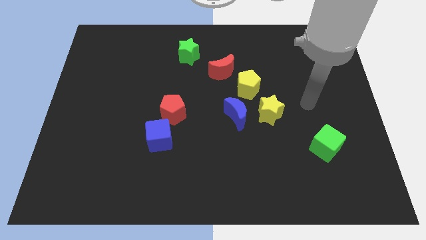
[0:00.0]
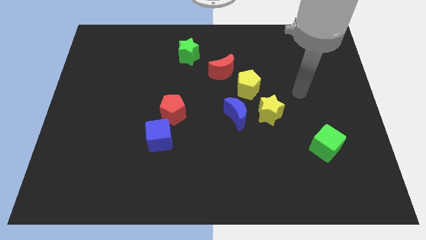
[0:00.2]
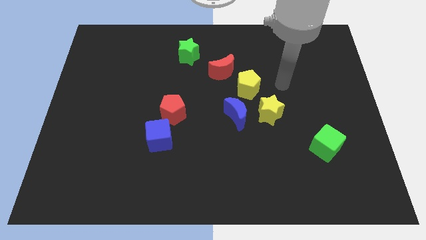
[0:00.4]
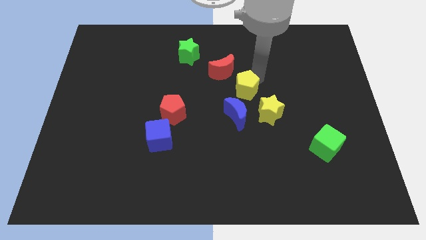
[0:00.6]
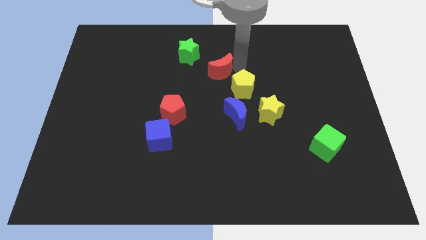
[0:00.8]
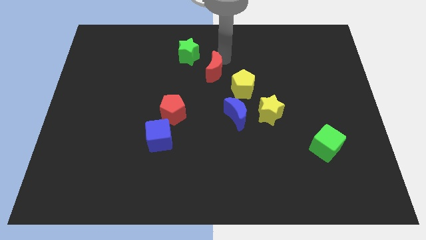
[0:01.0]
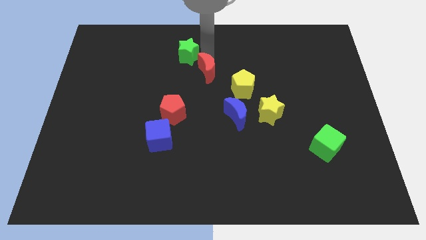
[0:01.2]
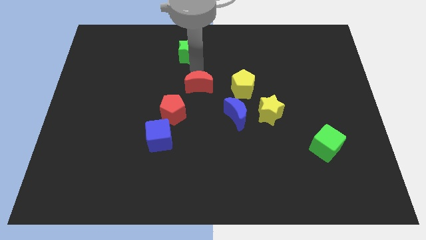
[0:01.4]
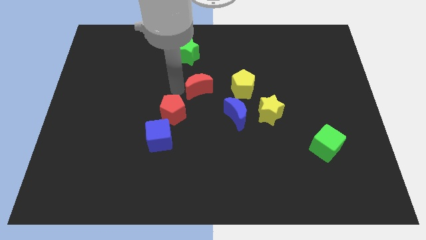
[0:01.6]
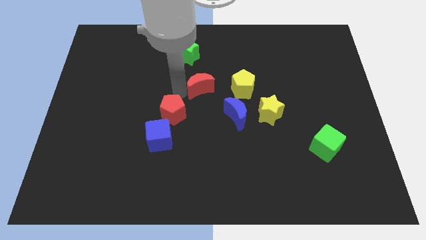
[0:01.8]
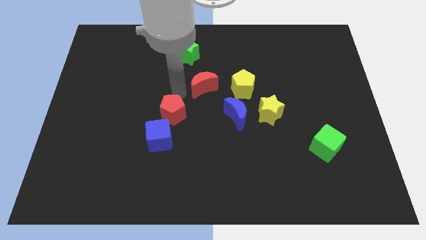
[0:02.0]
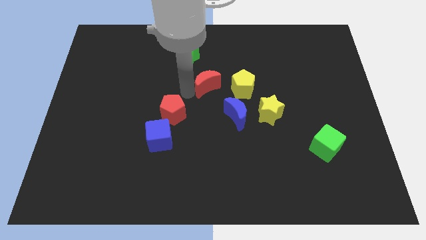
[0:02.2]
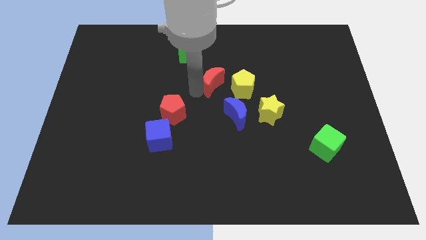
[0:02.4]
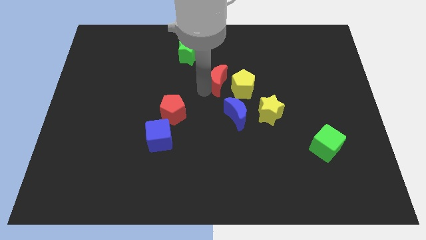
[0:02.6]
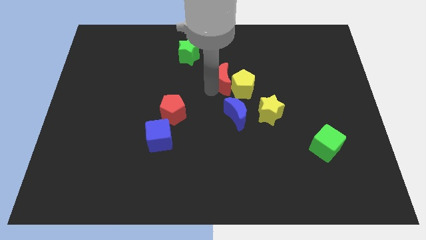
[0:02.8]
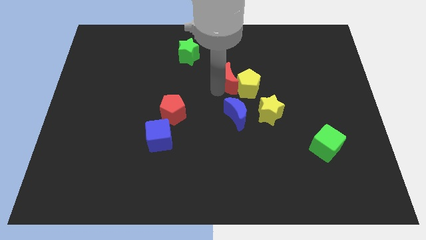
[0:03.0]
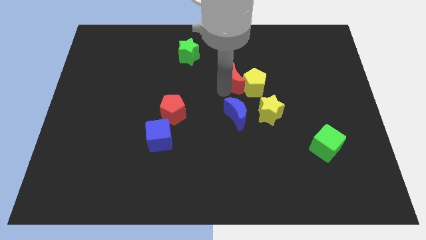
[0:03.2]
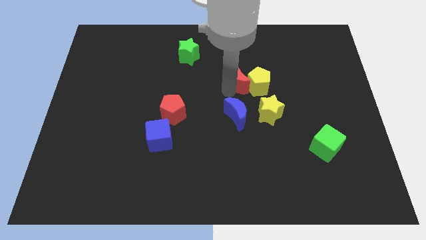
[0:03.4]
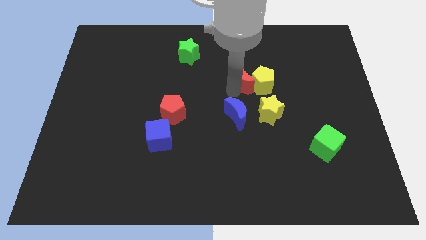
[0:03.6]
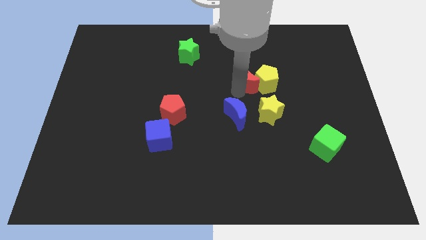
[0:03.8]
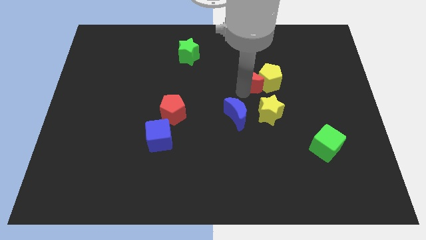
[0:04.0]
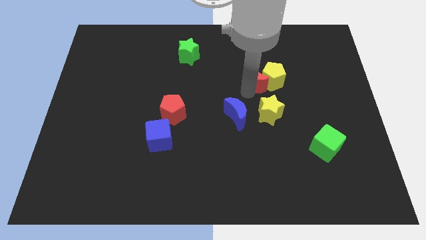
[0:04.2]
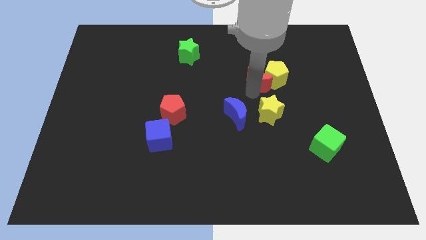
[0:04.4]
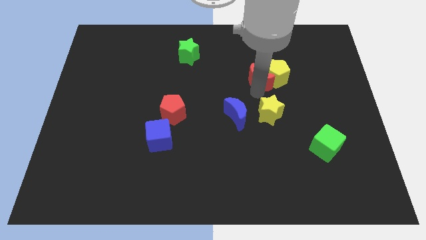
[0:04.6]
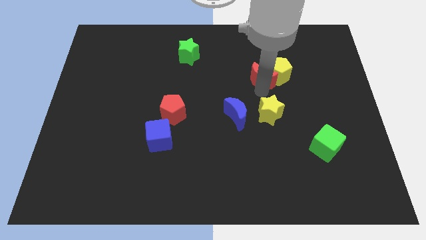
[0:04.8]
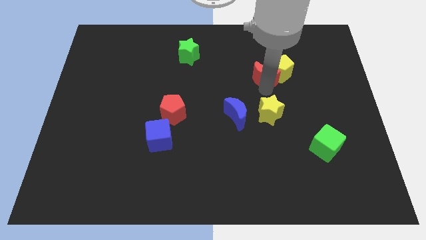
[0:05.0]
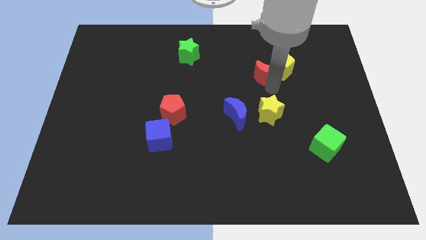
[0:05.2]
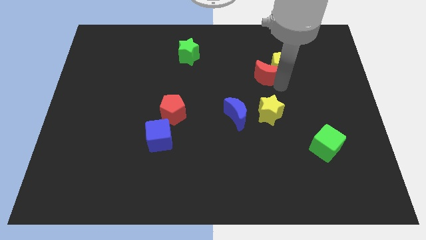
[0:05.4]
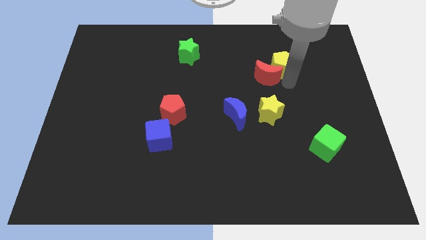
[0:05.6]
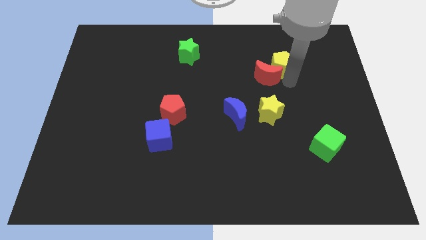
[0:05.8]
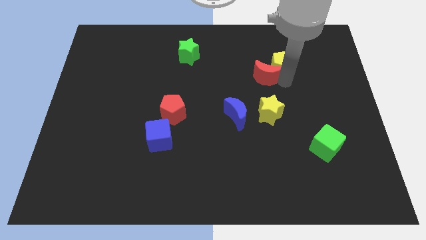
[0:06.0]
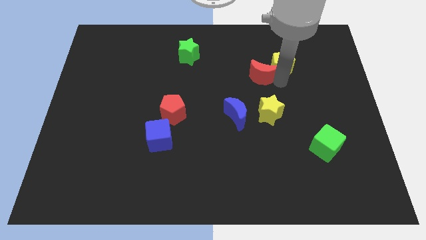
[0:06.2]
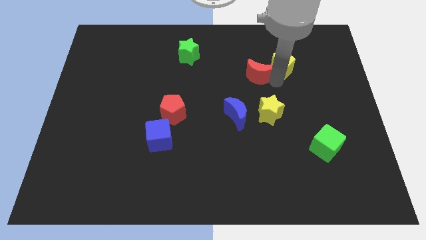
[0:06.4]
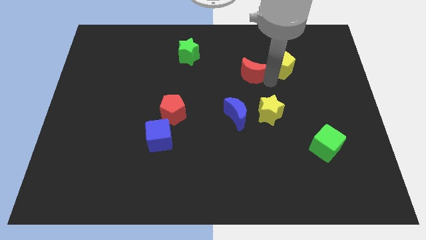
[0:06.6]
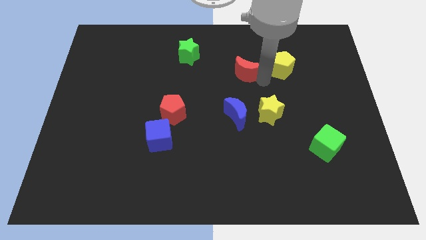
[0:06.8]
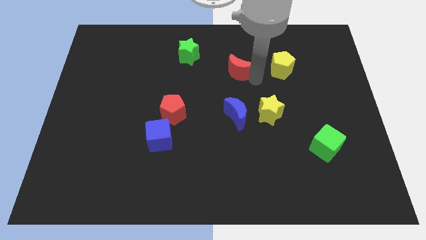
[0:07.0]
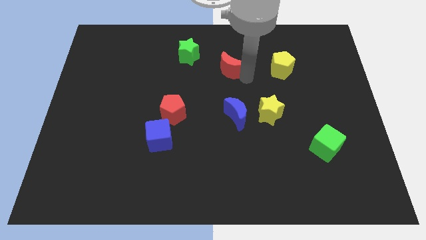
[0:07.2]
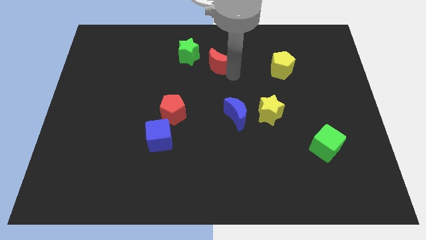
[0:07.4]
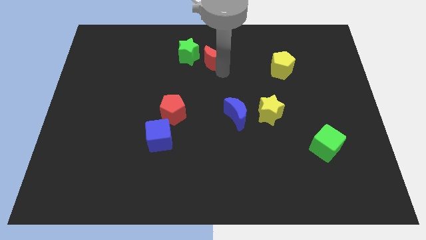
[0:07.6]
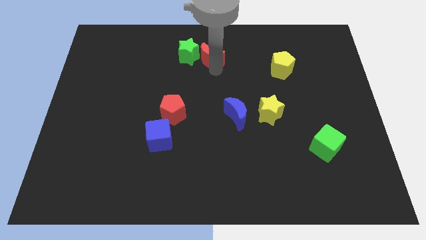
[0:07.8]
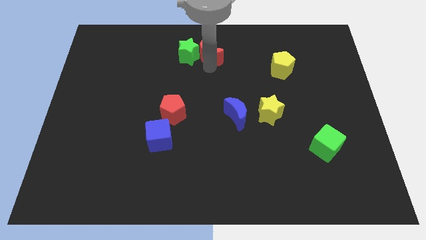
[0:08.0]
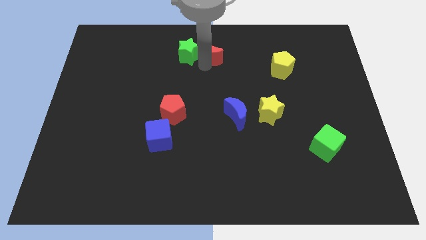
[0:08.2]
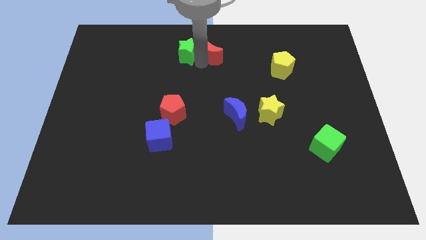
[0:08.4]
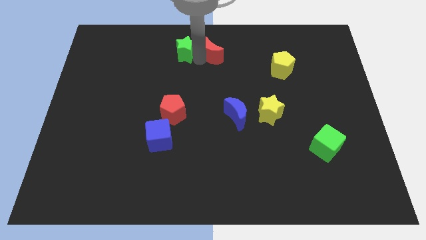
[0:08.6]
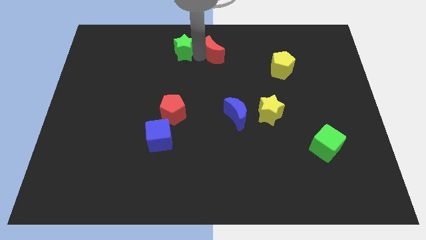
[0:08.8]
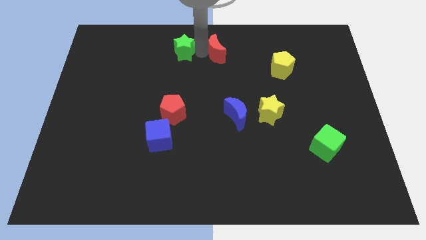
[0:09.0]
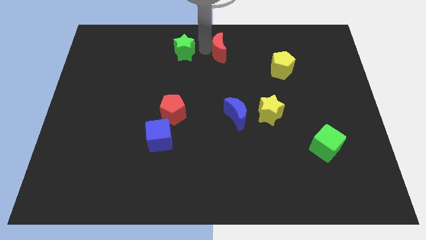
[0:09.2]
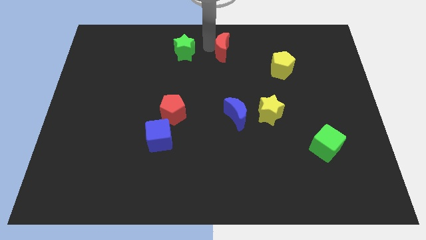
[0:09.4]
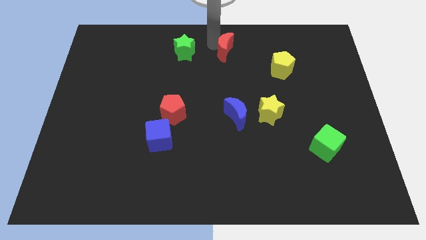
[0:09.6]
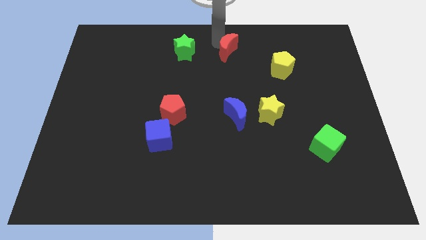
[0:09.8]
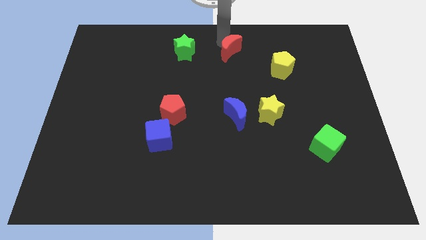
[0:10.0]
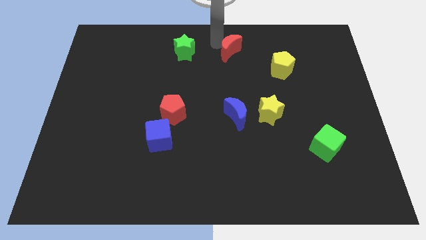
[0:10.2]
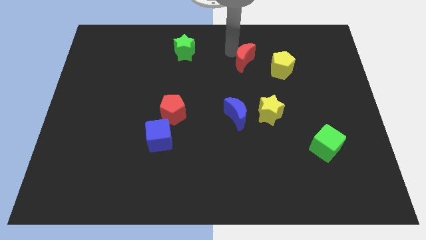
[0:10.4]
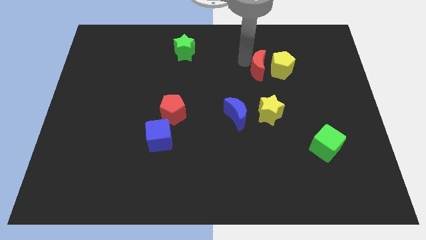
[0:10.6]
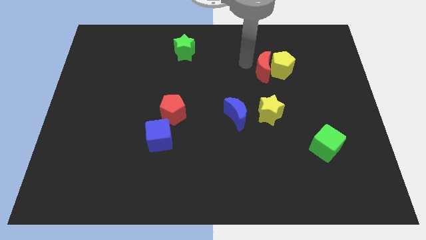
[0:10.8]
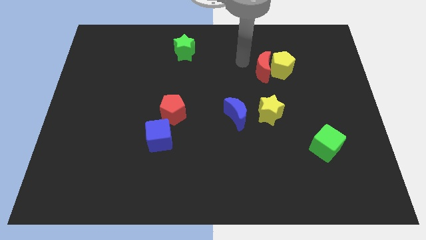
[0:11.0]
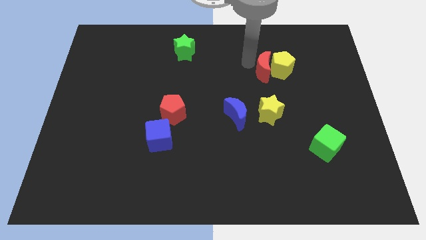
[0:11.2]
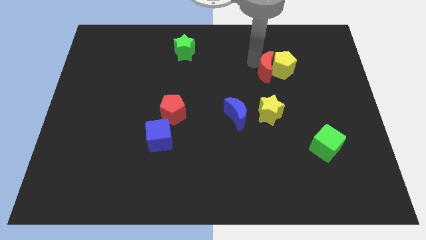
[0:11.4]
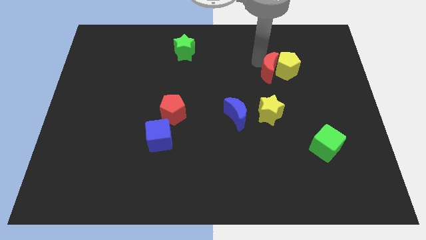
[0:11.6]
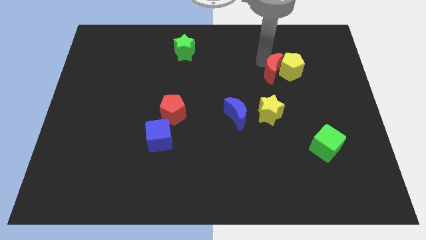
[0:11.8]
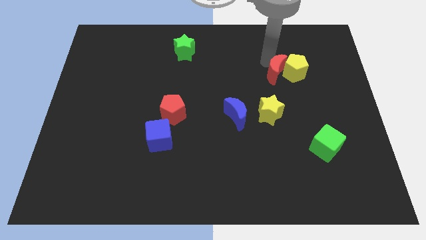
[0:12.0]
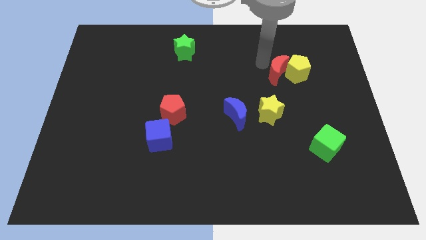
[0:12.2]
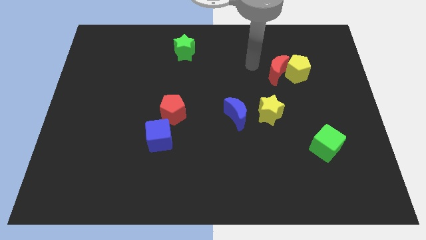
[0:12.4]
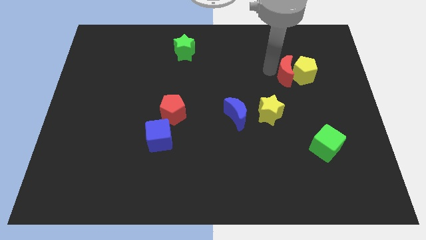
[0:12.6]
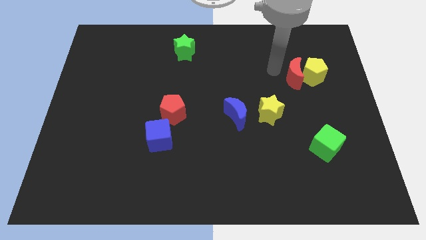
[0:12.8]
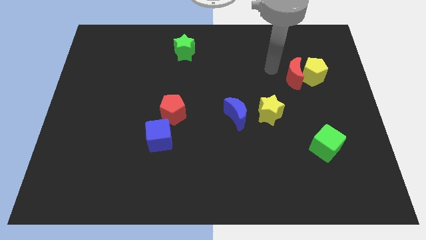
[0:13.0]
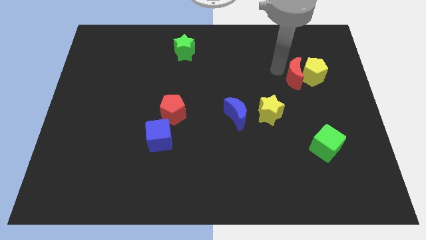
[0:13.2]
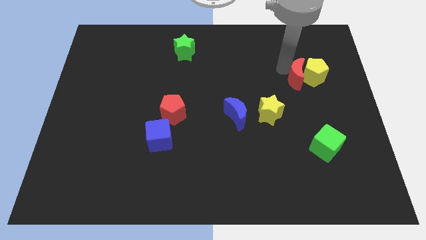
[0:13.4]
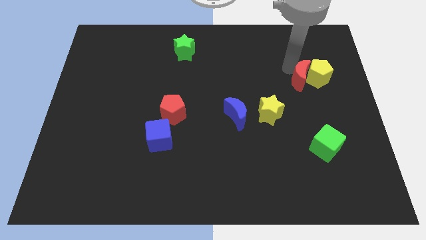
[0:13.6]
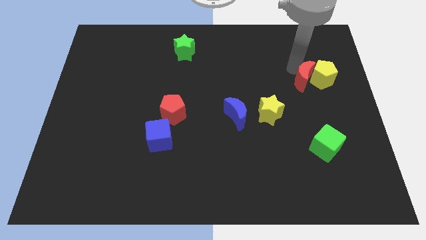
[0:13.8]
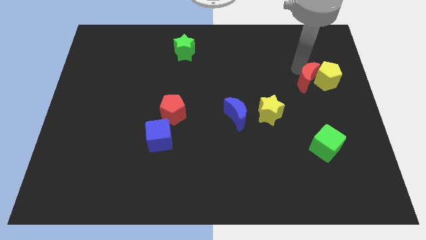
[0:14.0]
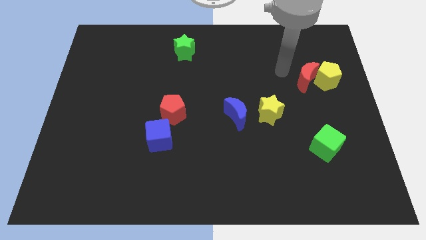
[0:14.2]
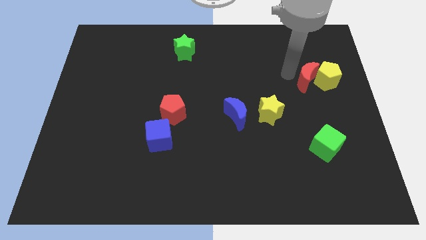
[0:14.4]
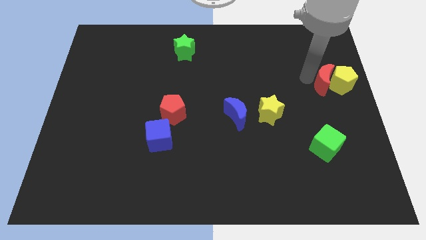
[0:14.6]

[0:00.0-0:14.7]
move the red moon to the right side of the board
